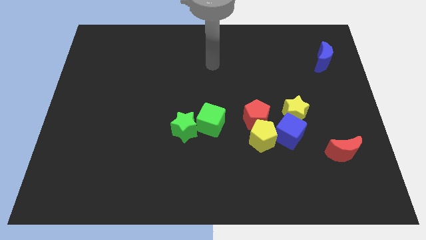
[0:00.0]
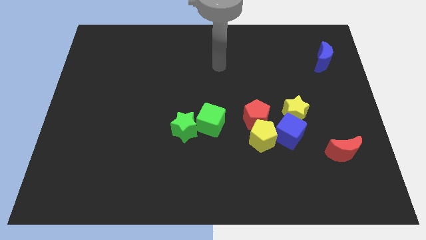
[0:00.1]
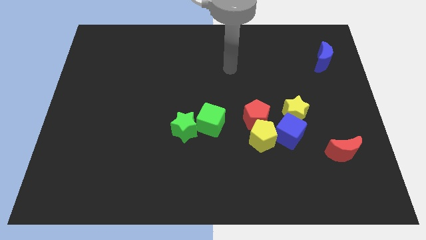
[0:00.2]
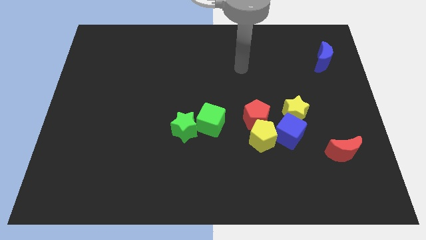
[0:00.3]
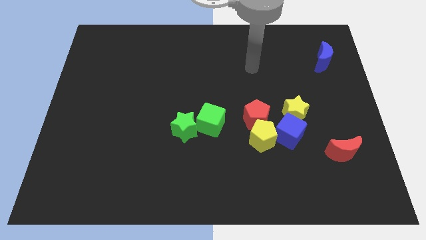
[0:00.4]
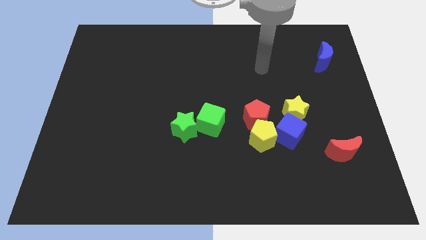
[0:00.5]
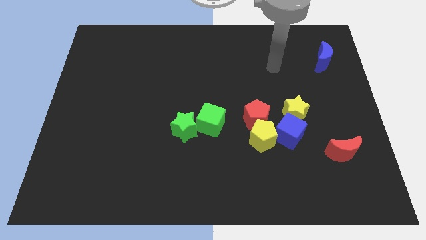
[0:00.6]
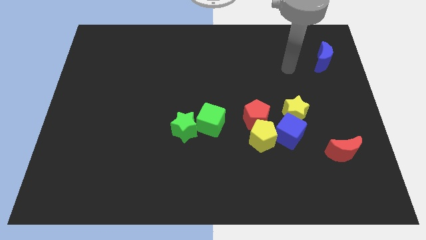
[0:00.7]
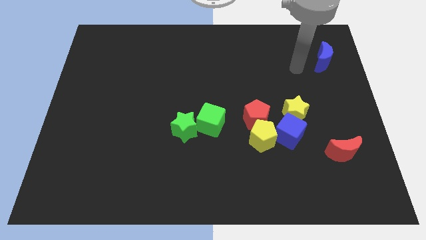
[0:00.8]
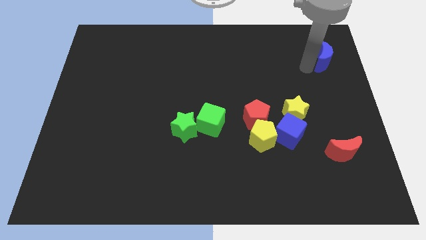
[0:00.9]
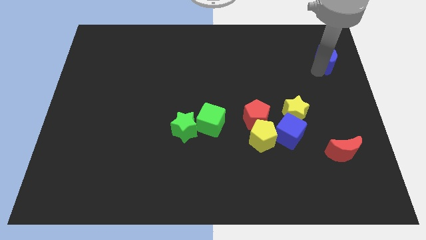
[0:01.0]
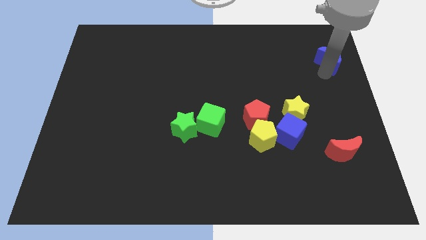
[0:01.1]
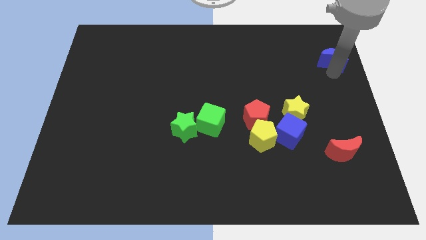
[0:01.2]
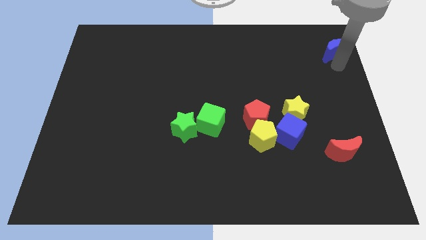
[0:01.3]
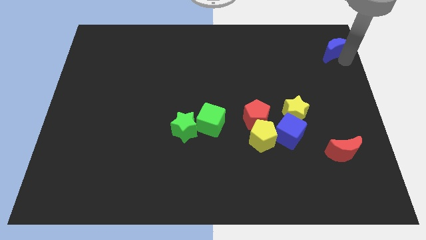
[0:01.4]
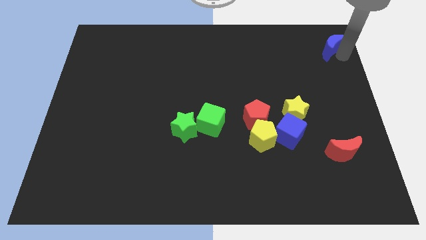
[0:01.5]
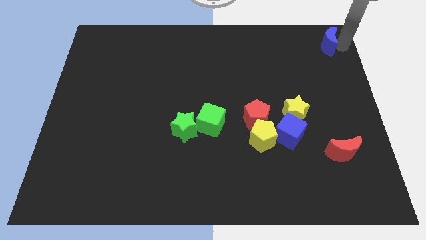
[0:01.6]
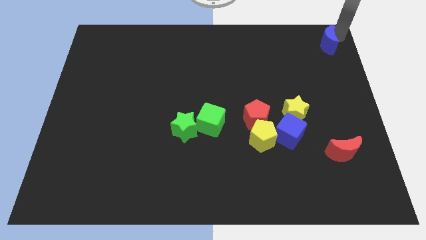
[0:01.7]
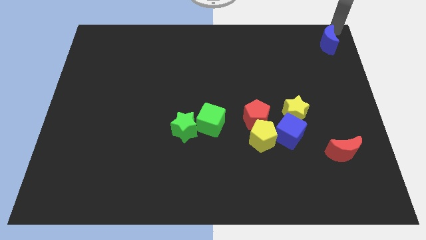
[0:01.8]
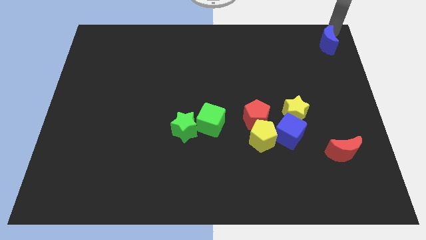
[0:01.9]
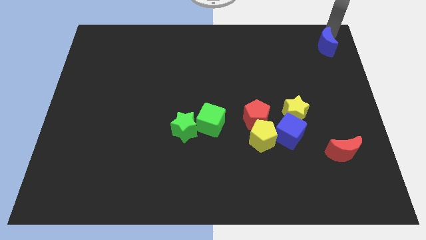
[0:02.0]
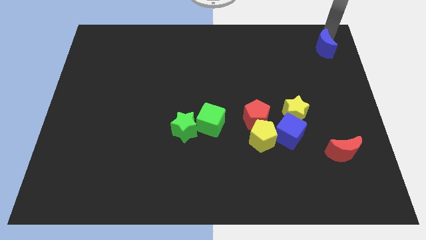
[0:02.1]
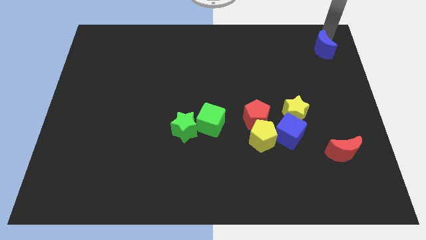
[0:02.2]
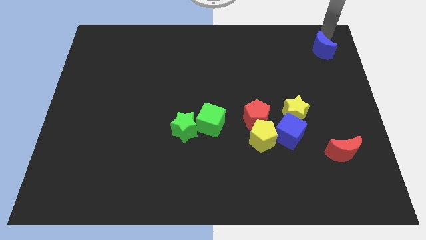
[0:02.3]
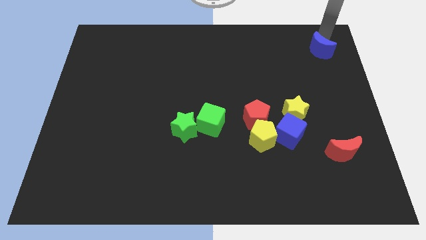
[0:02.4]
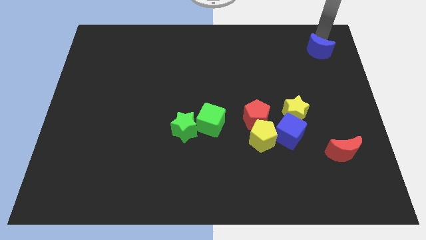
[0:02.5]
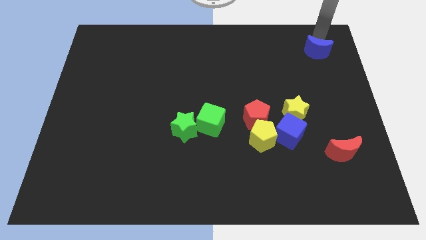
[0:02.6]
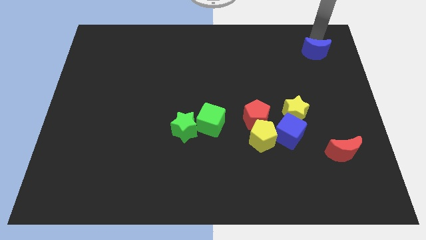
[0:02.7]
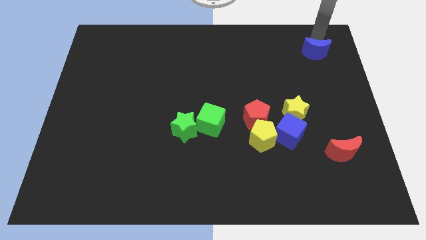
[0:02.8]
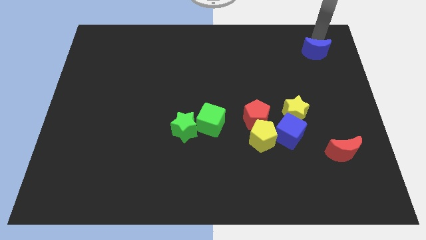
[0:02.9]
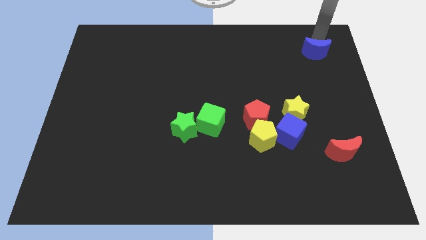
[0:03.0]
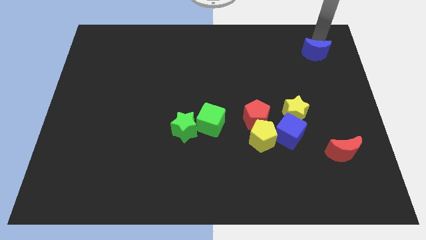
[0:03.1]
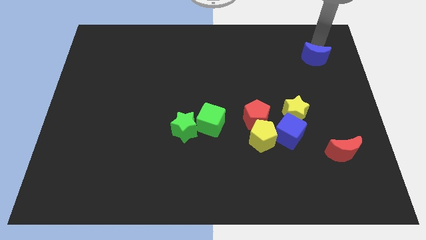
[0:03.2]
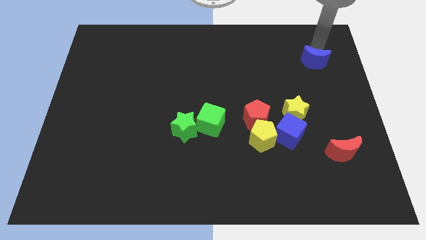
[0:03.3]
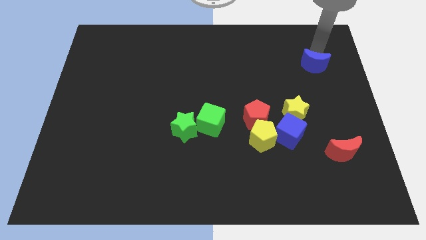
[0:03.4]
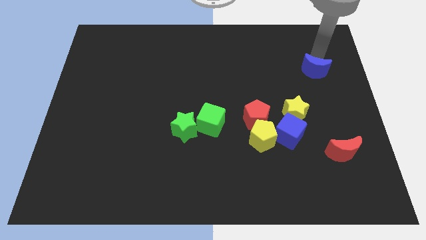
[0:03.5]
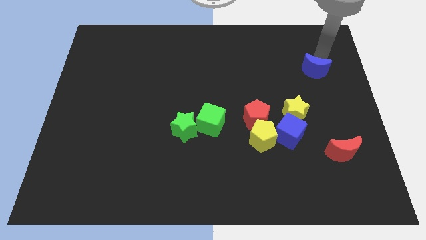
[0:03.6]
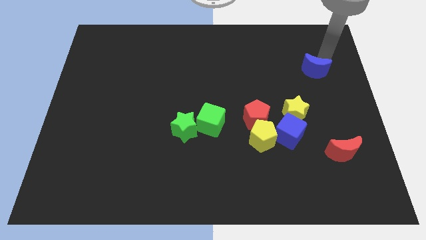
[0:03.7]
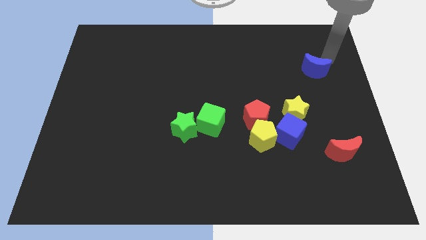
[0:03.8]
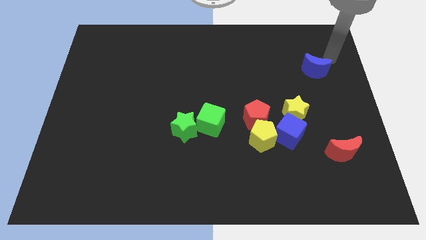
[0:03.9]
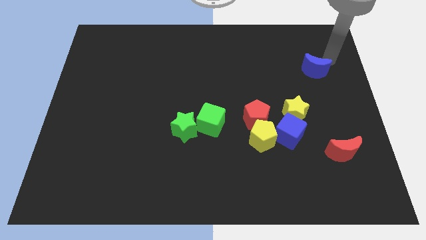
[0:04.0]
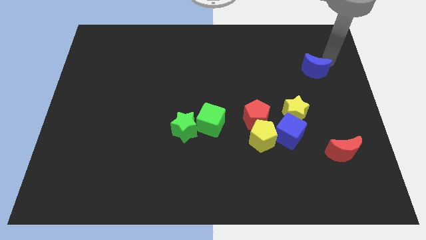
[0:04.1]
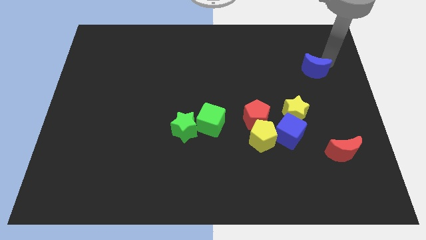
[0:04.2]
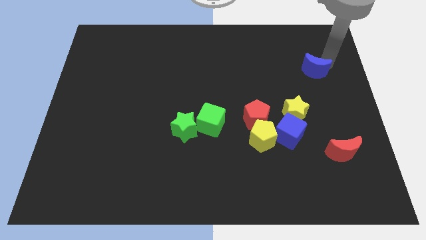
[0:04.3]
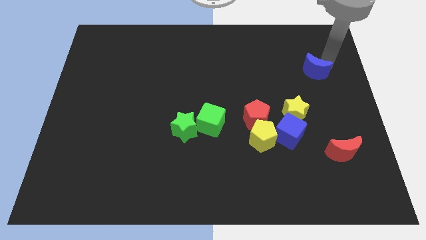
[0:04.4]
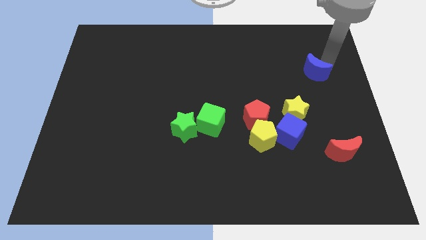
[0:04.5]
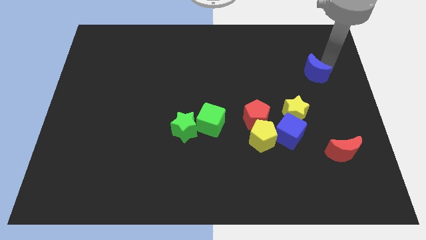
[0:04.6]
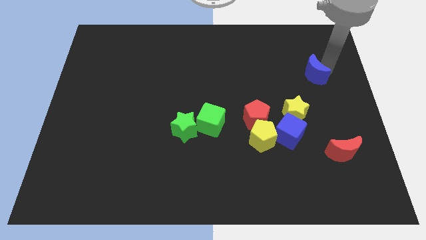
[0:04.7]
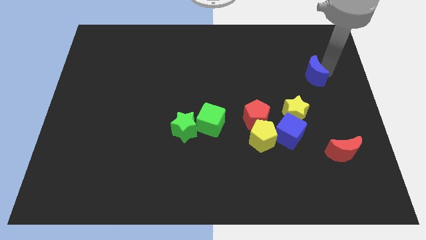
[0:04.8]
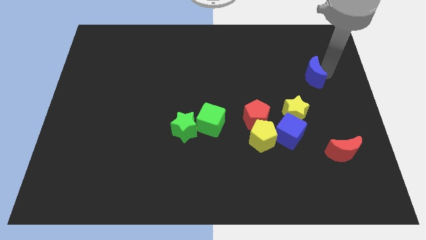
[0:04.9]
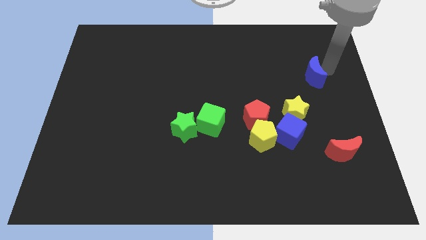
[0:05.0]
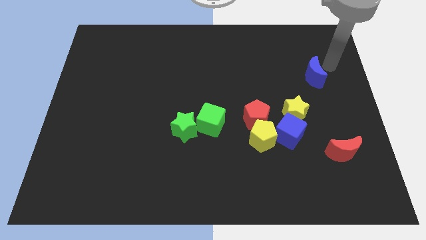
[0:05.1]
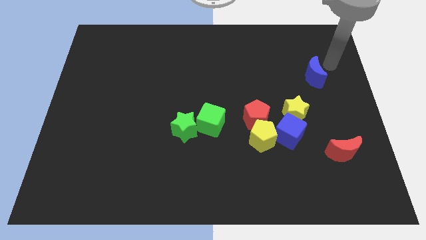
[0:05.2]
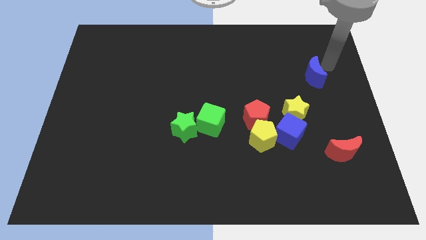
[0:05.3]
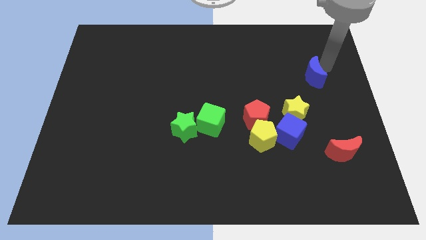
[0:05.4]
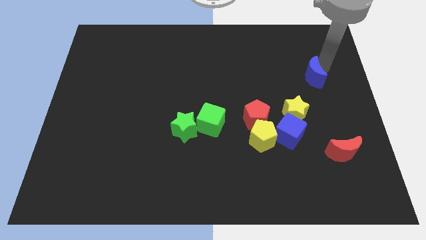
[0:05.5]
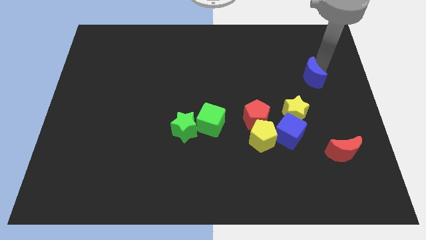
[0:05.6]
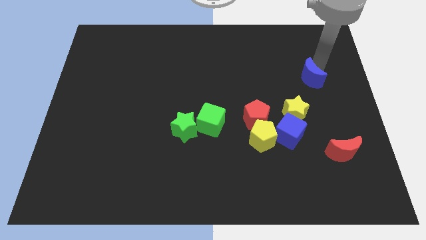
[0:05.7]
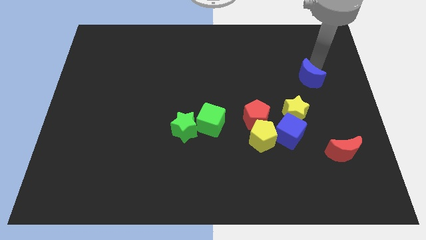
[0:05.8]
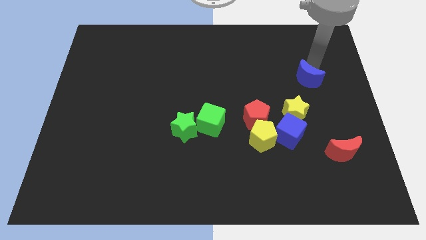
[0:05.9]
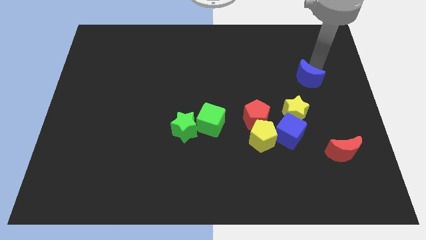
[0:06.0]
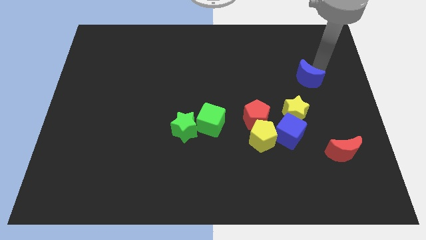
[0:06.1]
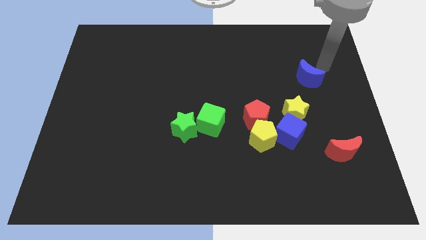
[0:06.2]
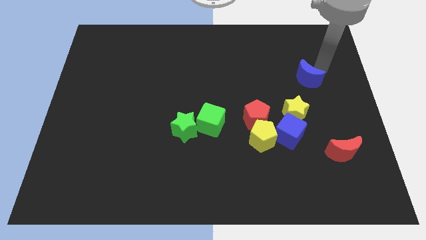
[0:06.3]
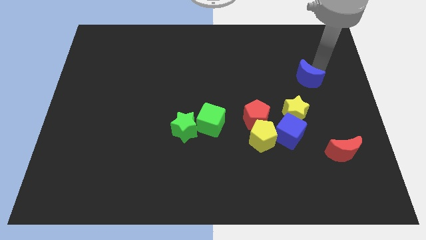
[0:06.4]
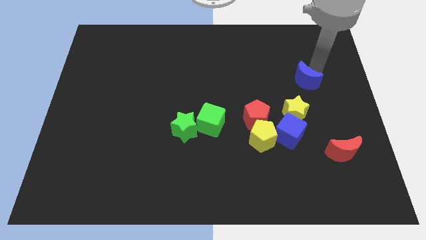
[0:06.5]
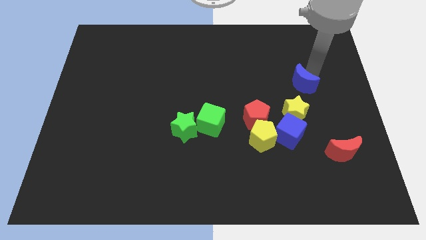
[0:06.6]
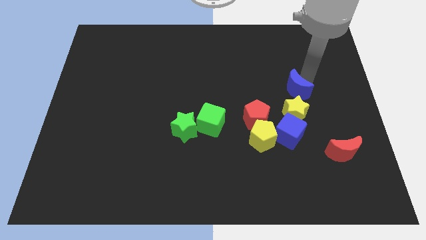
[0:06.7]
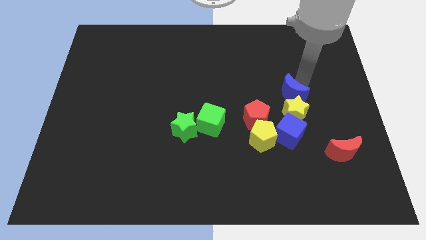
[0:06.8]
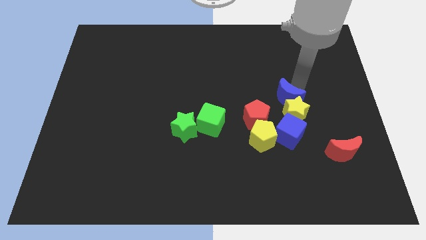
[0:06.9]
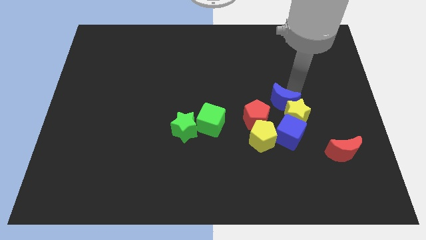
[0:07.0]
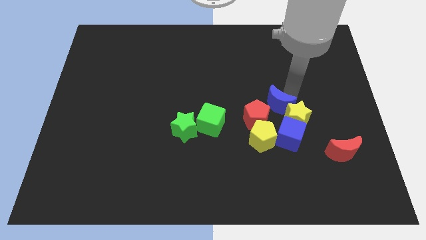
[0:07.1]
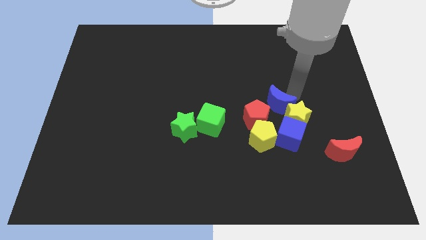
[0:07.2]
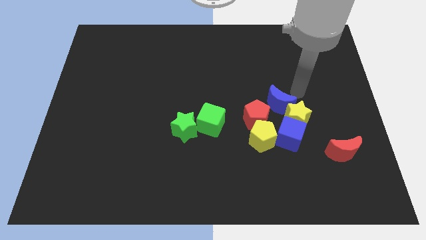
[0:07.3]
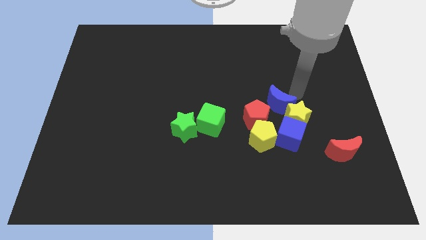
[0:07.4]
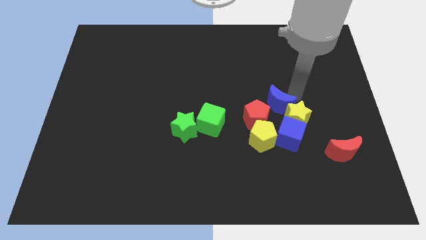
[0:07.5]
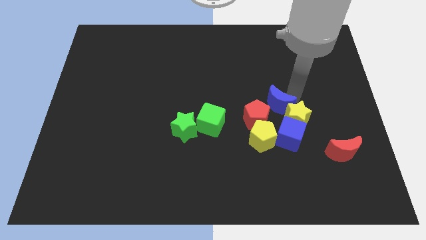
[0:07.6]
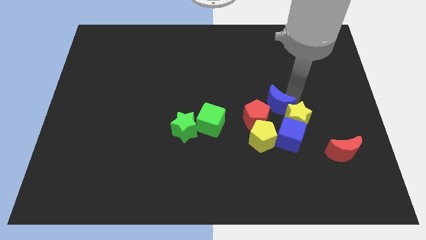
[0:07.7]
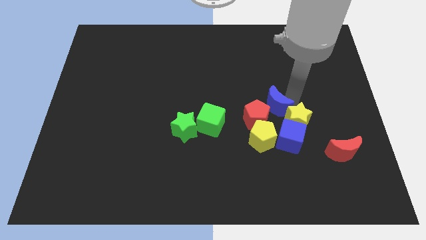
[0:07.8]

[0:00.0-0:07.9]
put the blue moon to the red pentagon
